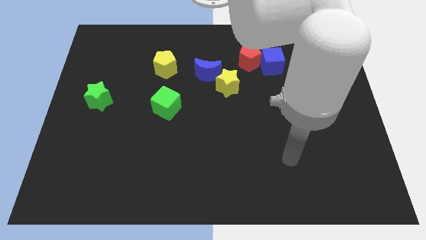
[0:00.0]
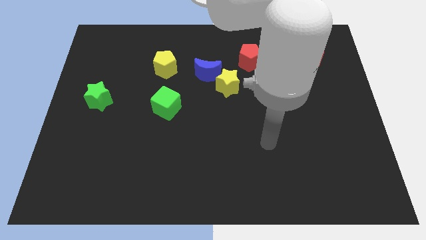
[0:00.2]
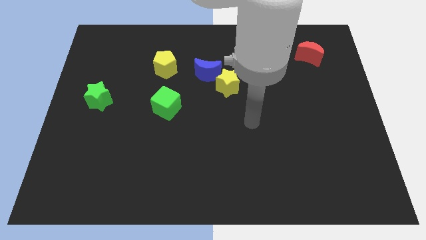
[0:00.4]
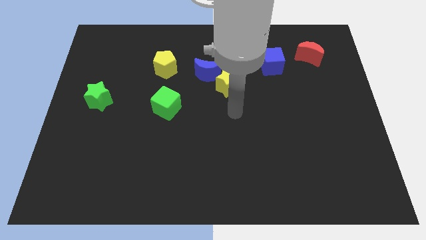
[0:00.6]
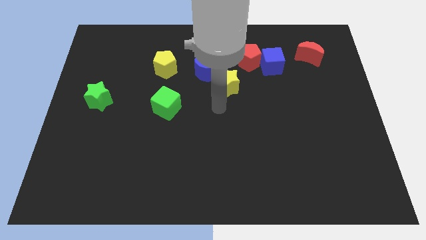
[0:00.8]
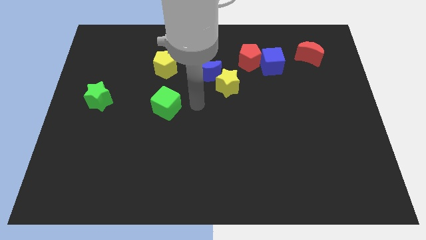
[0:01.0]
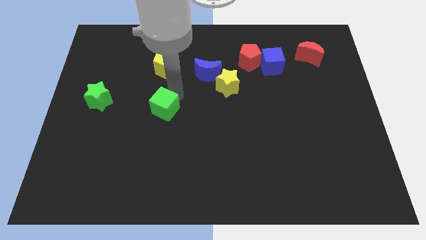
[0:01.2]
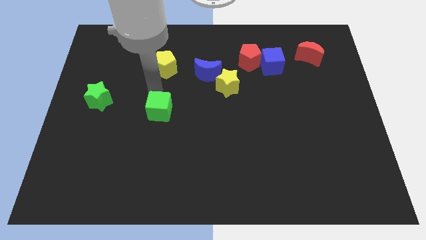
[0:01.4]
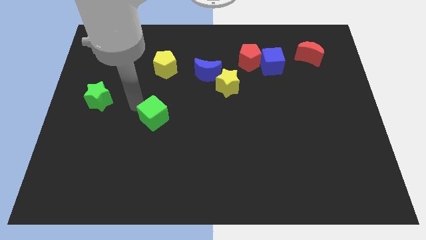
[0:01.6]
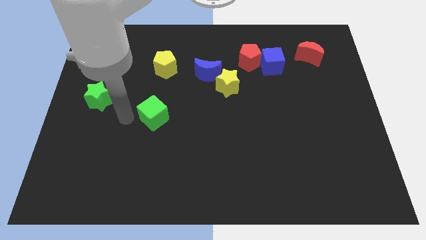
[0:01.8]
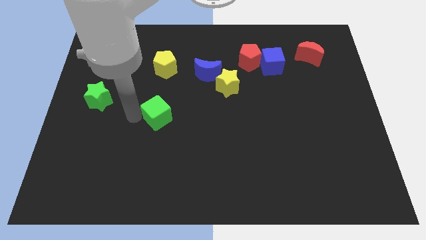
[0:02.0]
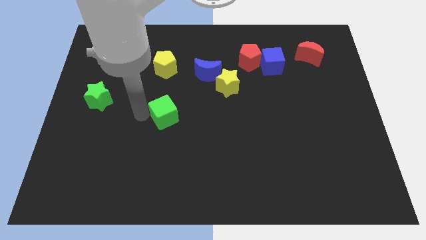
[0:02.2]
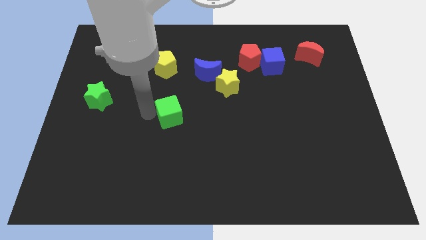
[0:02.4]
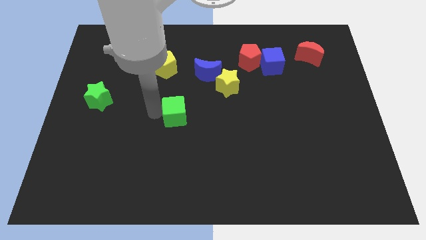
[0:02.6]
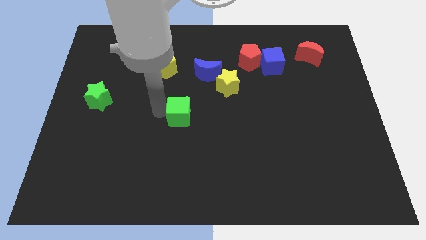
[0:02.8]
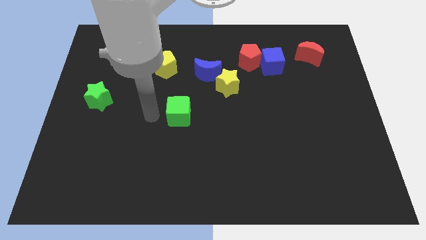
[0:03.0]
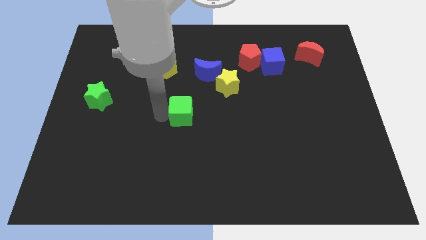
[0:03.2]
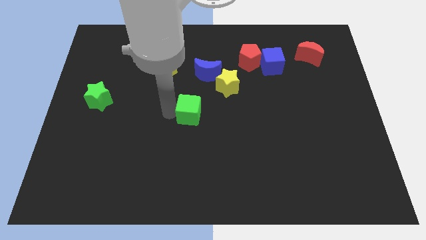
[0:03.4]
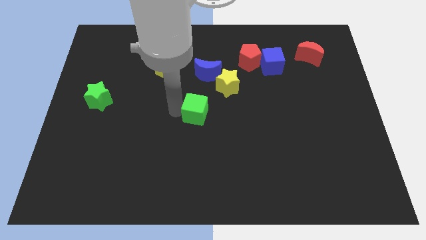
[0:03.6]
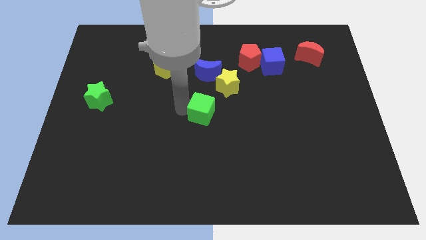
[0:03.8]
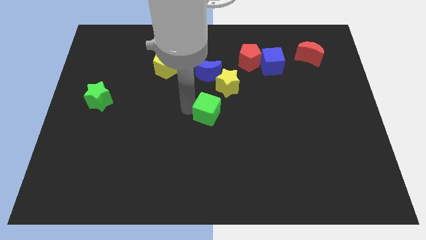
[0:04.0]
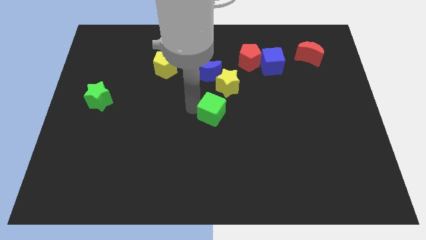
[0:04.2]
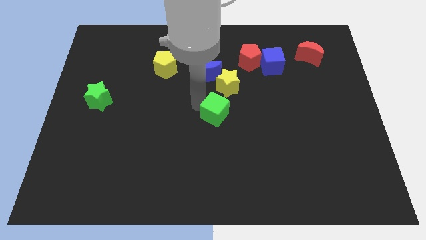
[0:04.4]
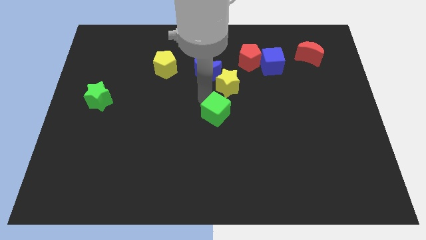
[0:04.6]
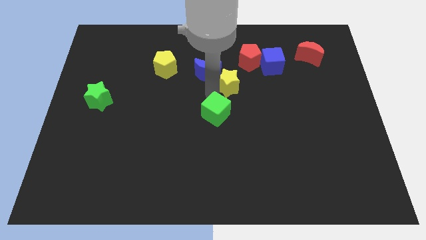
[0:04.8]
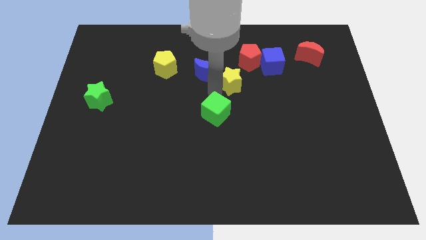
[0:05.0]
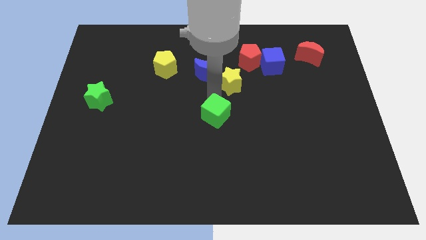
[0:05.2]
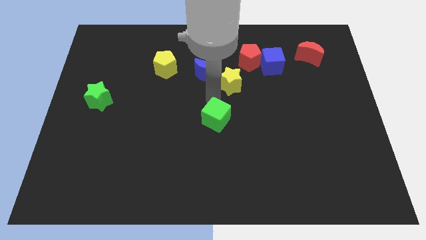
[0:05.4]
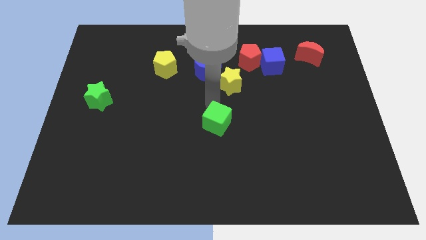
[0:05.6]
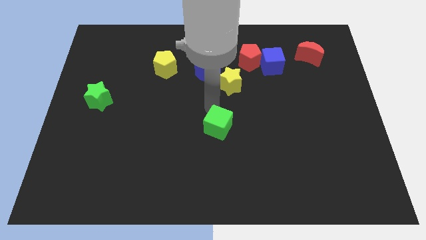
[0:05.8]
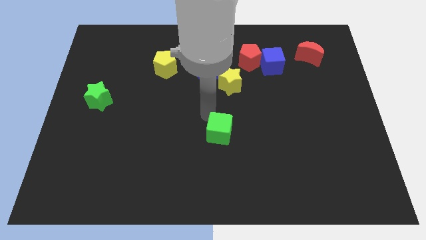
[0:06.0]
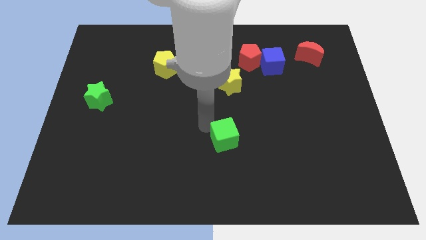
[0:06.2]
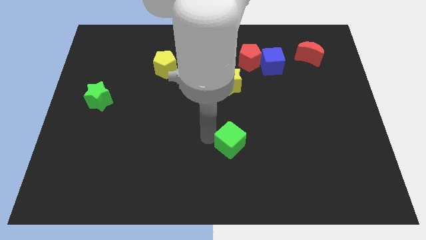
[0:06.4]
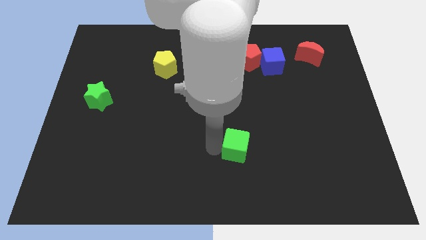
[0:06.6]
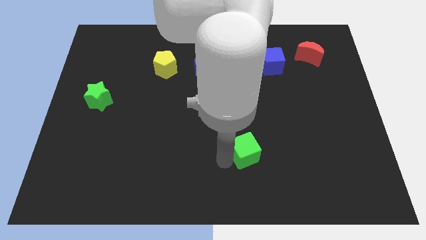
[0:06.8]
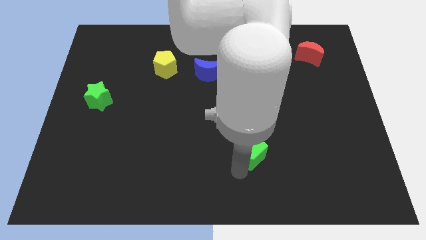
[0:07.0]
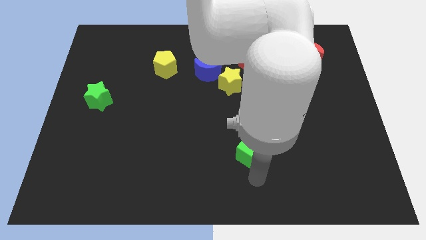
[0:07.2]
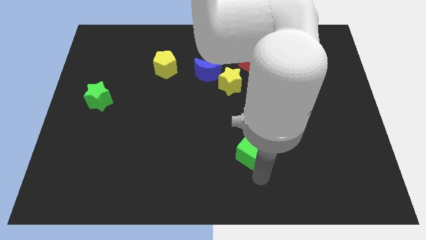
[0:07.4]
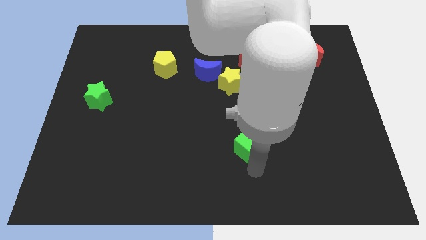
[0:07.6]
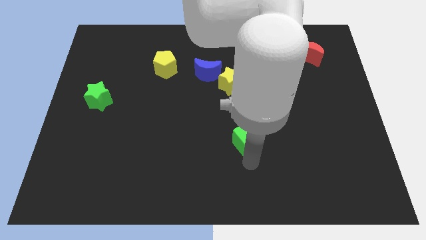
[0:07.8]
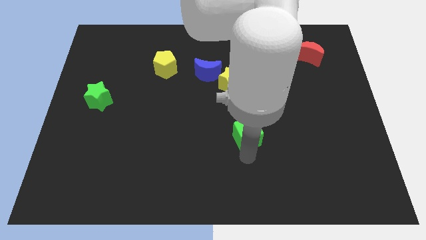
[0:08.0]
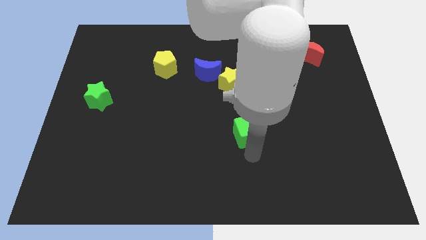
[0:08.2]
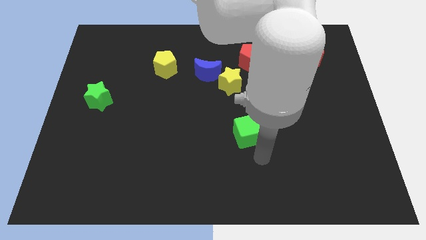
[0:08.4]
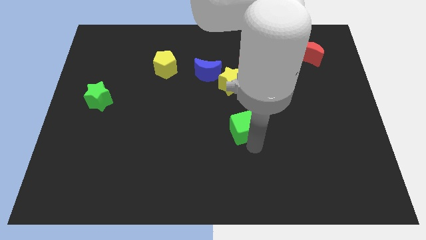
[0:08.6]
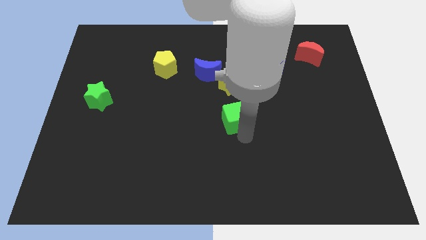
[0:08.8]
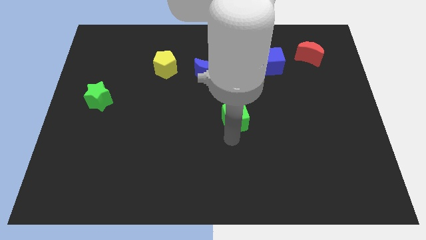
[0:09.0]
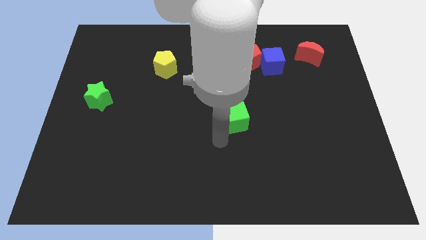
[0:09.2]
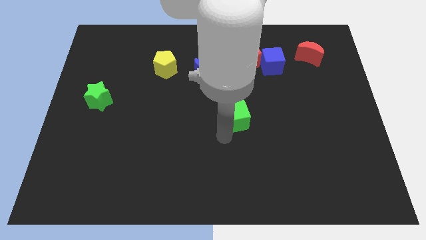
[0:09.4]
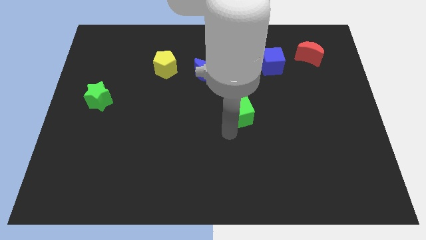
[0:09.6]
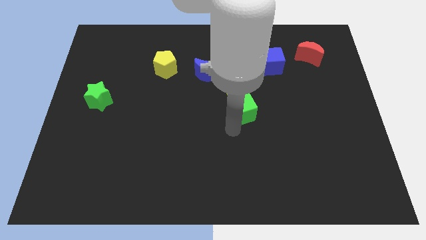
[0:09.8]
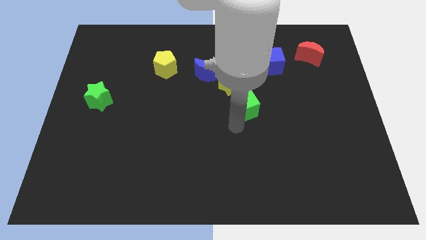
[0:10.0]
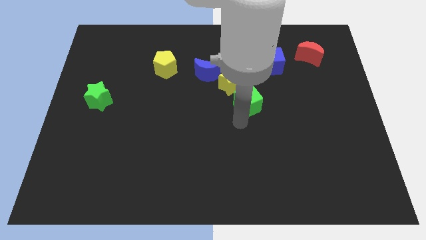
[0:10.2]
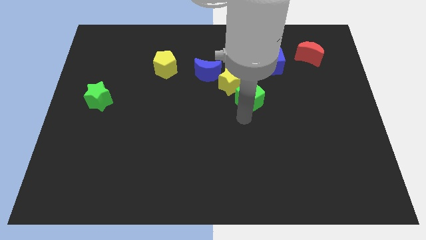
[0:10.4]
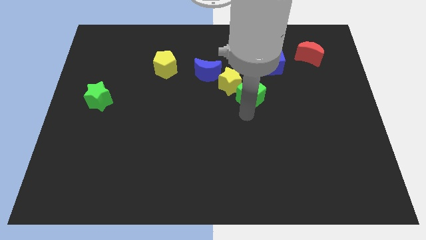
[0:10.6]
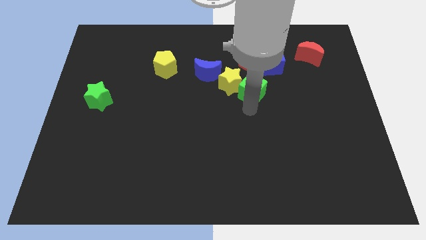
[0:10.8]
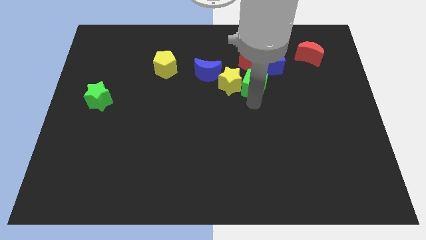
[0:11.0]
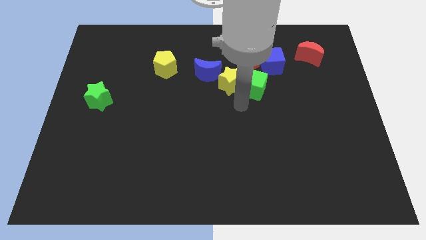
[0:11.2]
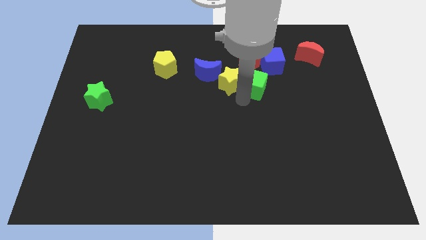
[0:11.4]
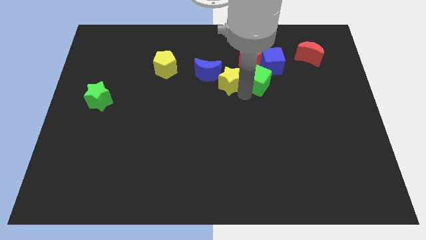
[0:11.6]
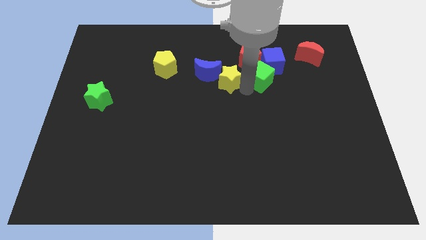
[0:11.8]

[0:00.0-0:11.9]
put the green cube close to the blue cube

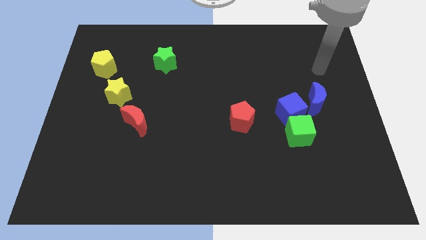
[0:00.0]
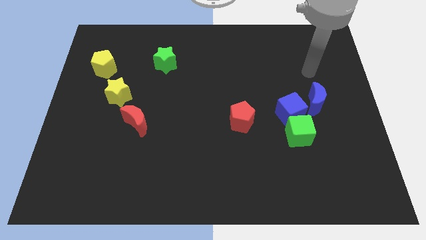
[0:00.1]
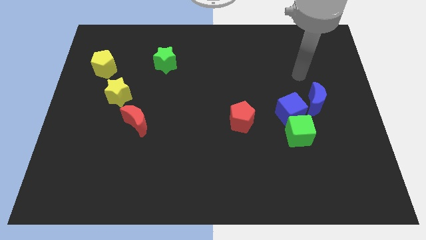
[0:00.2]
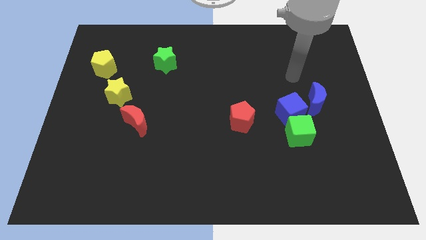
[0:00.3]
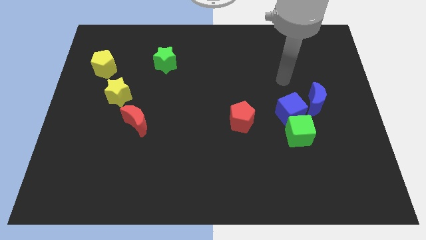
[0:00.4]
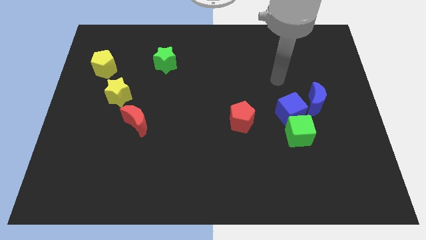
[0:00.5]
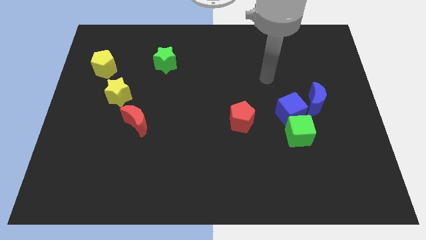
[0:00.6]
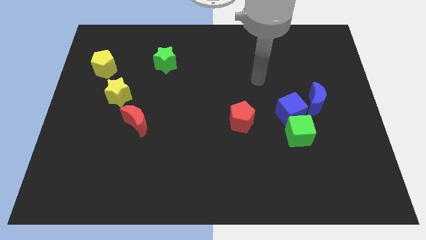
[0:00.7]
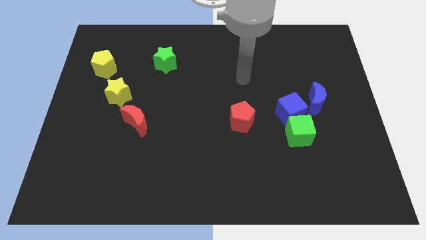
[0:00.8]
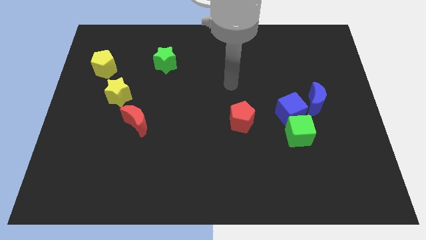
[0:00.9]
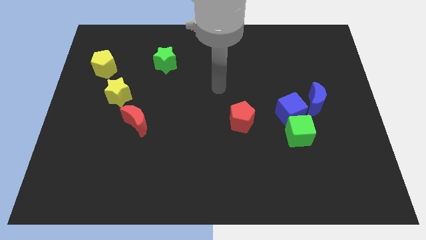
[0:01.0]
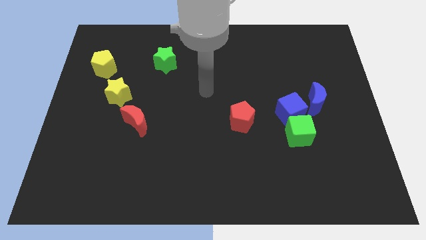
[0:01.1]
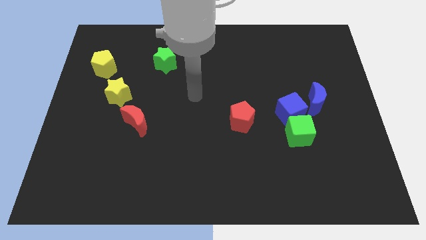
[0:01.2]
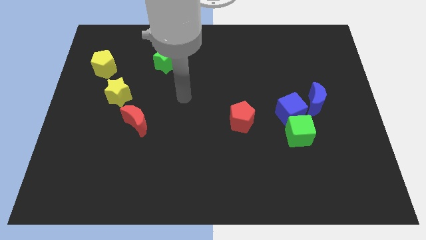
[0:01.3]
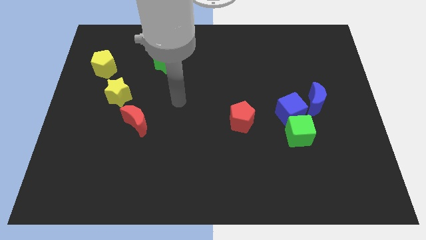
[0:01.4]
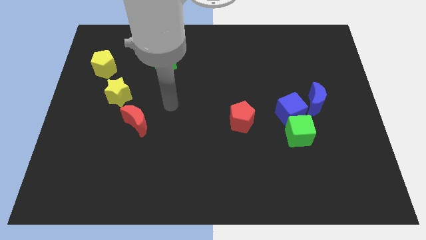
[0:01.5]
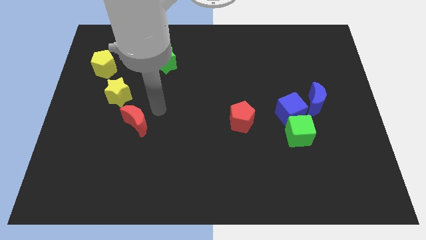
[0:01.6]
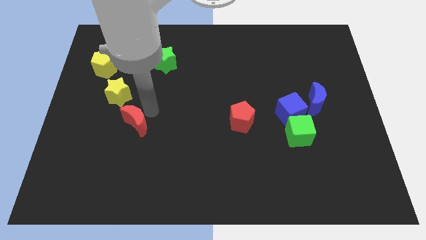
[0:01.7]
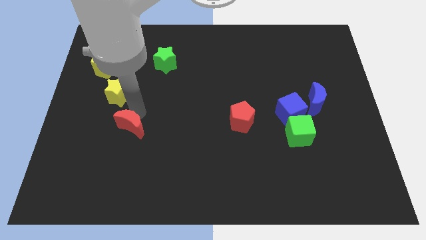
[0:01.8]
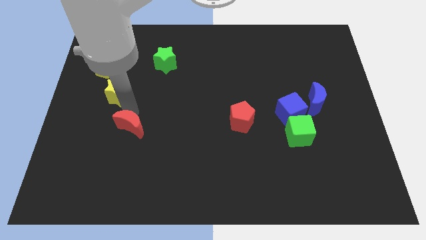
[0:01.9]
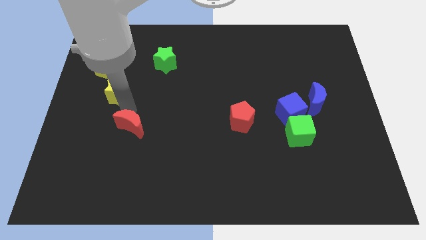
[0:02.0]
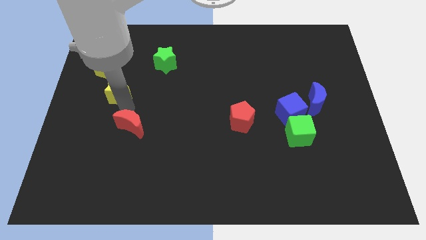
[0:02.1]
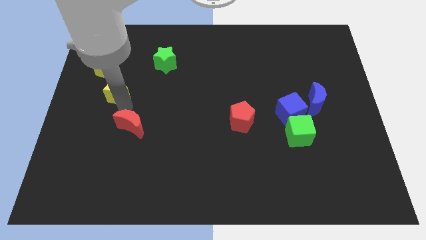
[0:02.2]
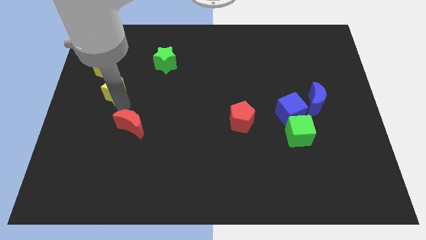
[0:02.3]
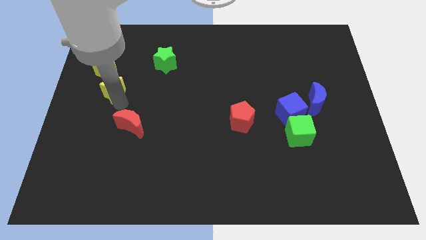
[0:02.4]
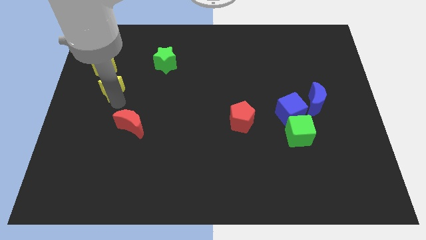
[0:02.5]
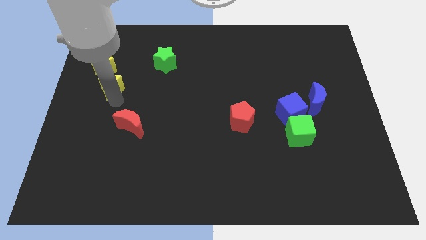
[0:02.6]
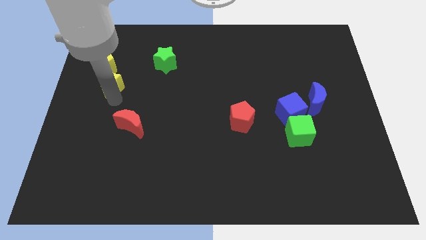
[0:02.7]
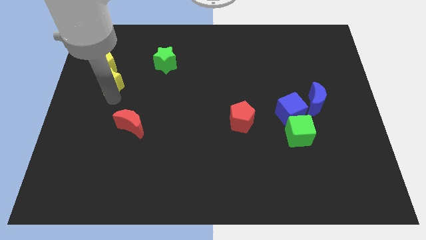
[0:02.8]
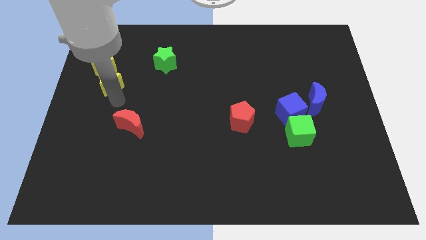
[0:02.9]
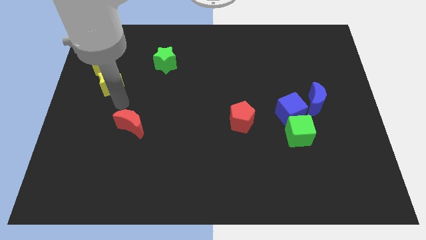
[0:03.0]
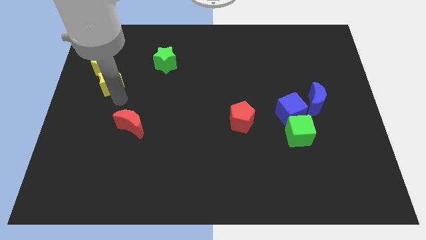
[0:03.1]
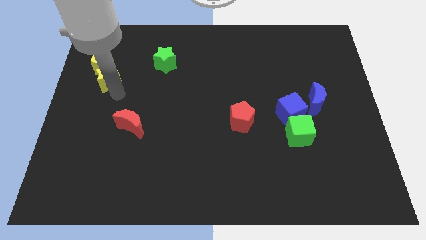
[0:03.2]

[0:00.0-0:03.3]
move the yellow star towards the yellow pentagon
